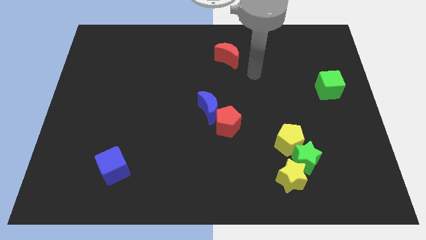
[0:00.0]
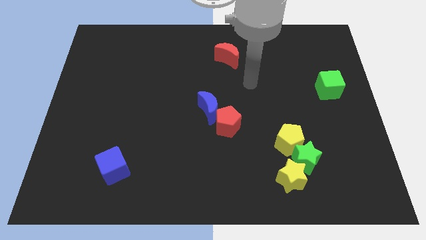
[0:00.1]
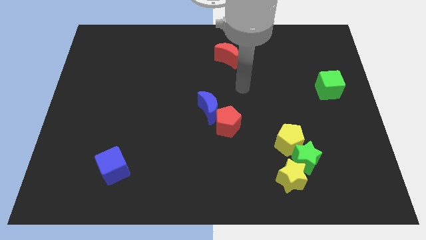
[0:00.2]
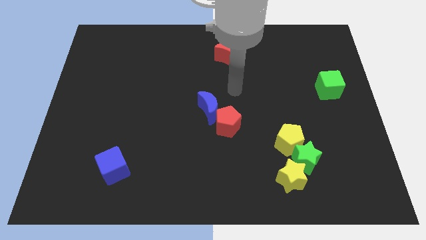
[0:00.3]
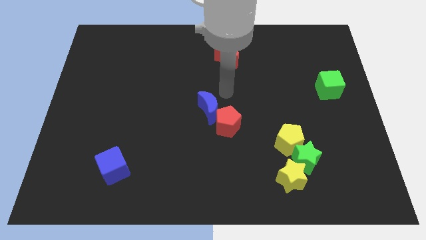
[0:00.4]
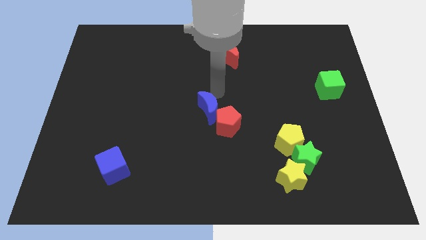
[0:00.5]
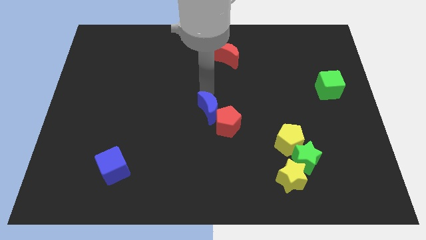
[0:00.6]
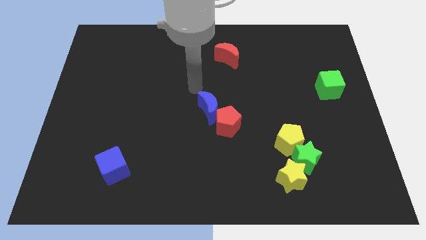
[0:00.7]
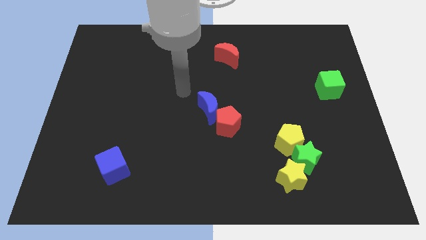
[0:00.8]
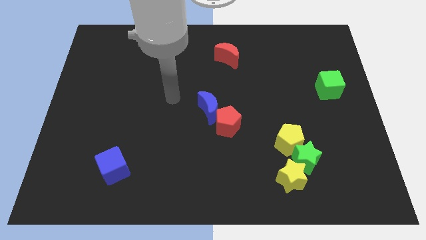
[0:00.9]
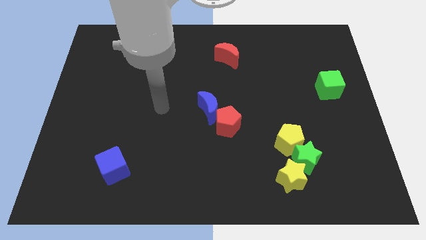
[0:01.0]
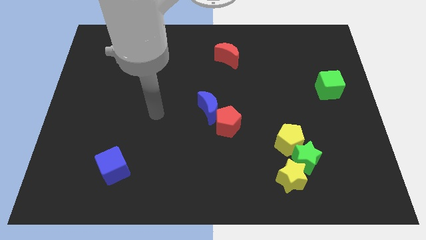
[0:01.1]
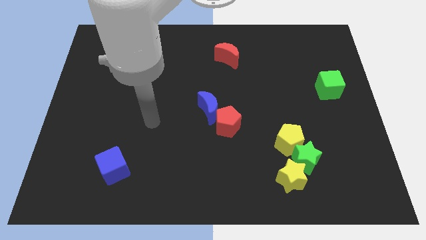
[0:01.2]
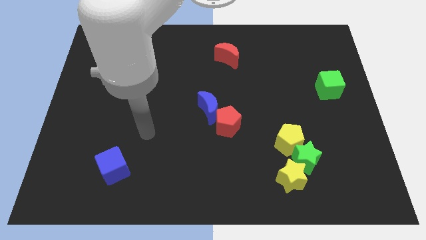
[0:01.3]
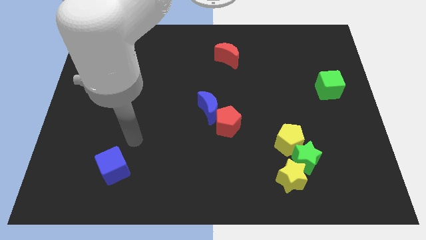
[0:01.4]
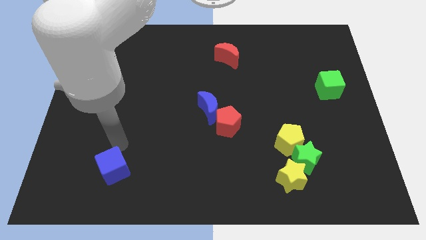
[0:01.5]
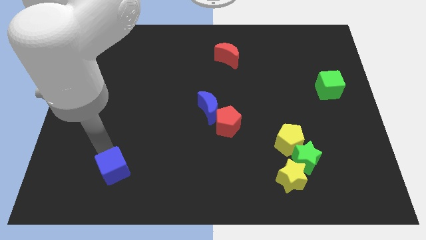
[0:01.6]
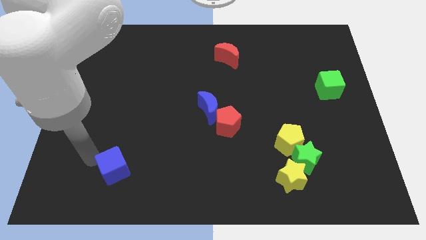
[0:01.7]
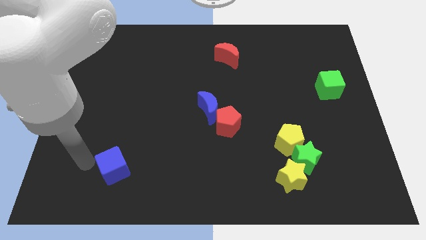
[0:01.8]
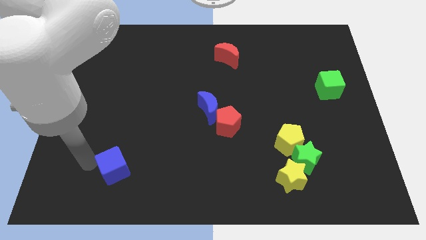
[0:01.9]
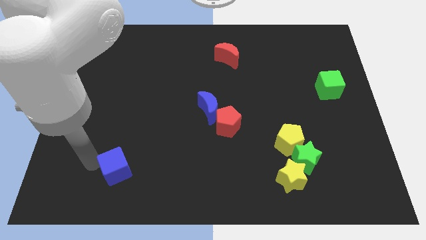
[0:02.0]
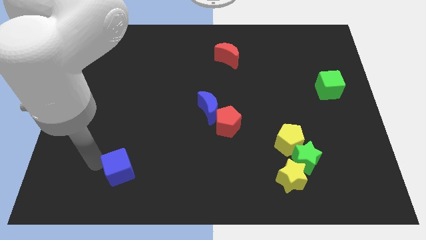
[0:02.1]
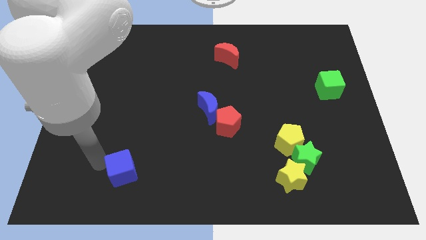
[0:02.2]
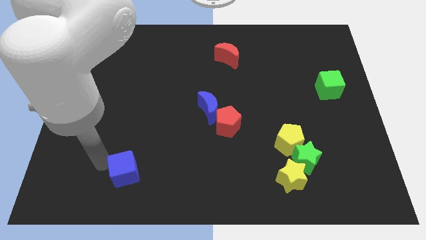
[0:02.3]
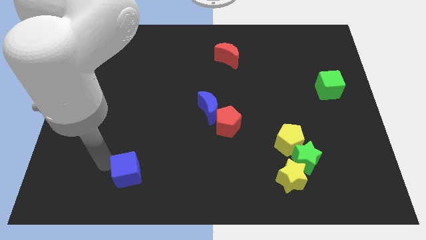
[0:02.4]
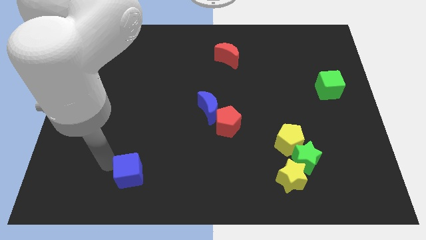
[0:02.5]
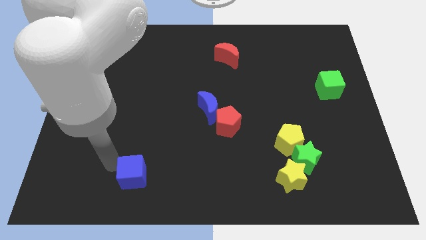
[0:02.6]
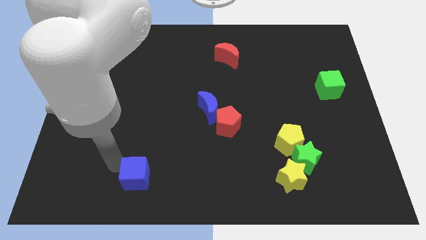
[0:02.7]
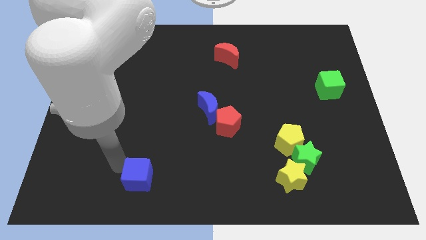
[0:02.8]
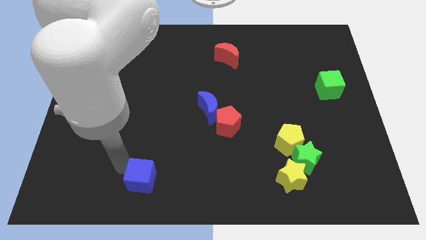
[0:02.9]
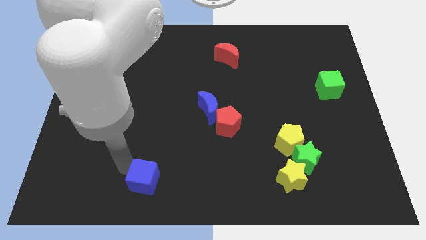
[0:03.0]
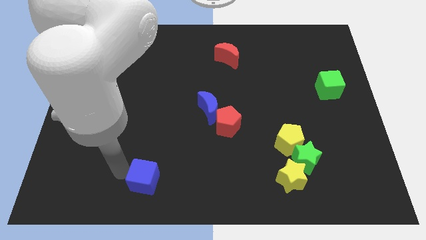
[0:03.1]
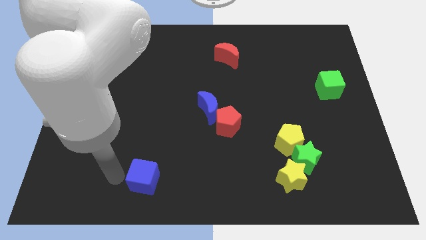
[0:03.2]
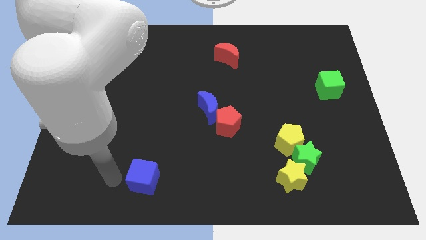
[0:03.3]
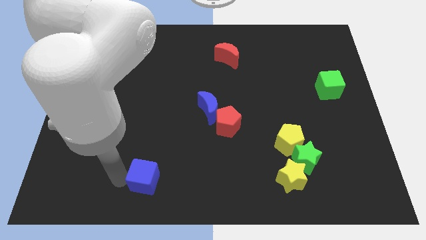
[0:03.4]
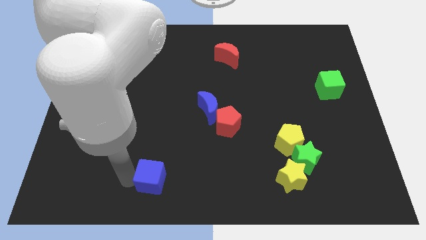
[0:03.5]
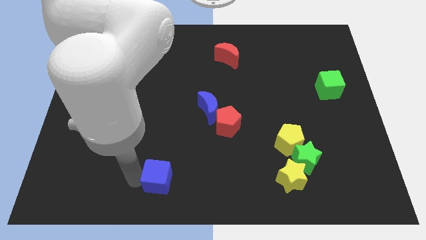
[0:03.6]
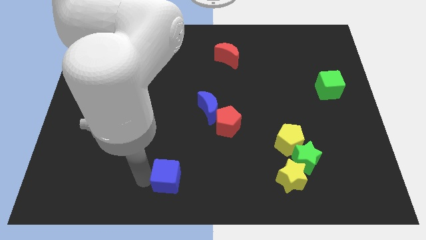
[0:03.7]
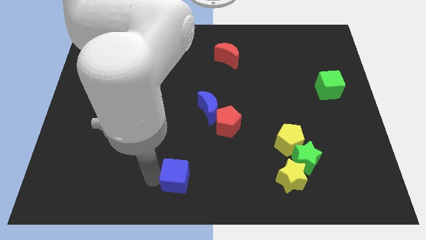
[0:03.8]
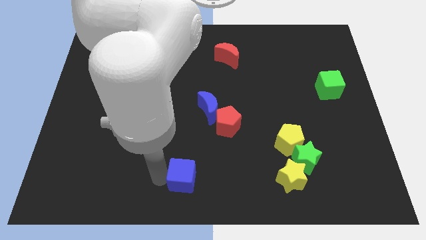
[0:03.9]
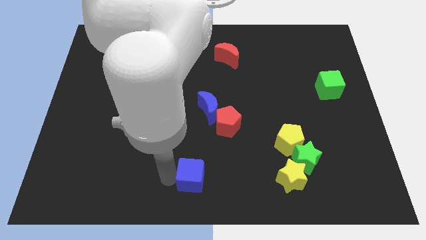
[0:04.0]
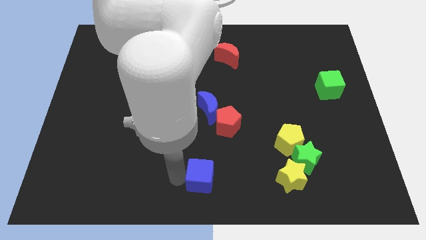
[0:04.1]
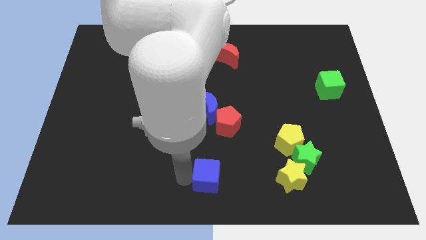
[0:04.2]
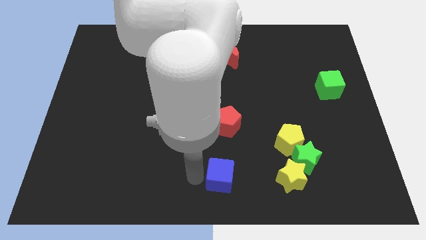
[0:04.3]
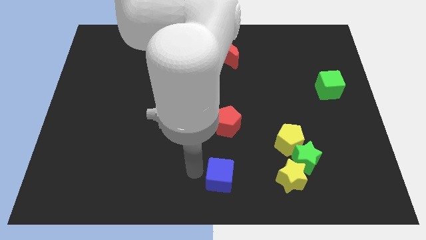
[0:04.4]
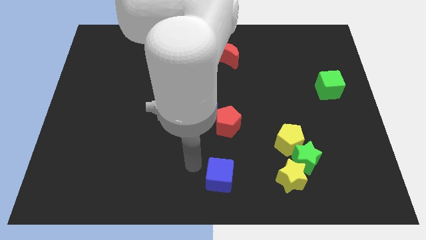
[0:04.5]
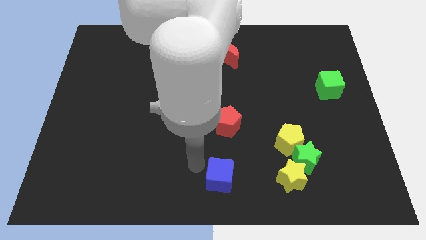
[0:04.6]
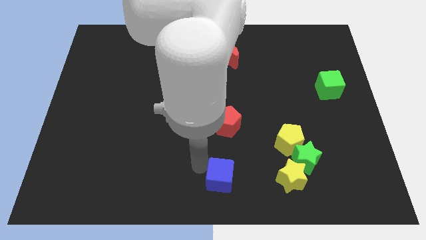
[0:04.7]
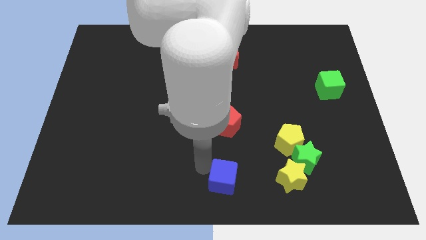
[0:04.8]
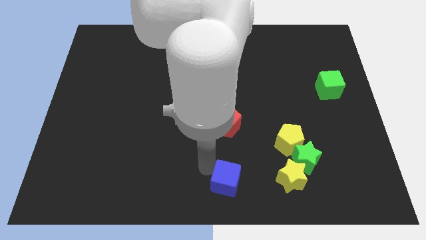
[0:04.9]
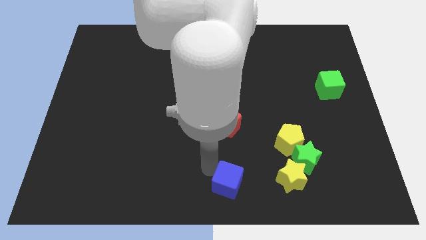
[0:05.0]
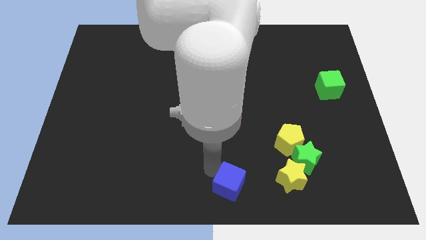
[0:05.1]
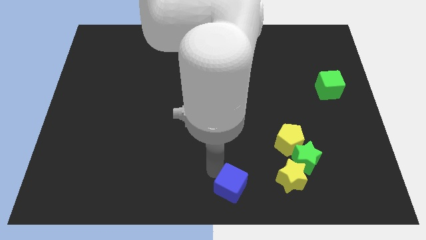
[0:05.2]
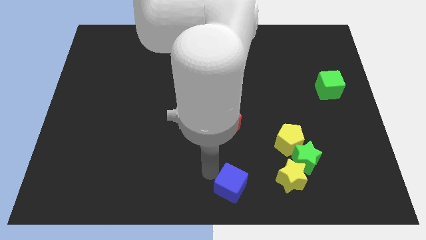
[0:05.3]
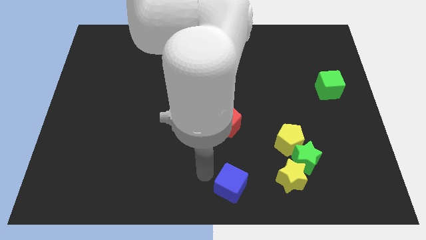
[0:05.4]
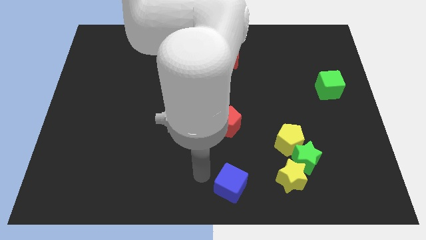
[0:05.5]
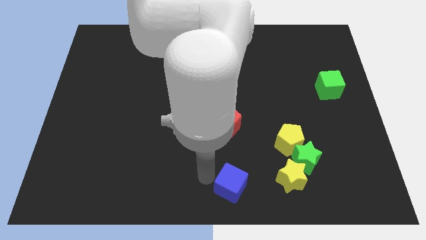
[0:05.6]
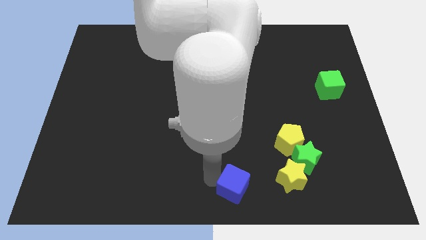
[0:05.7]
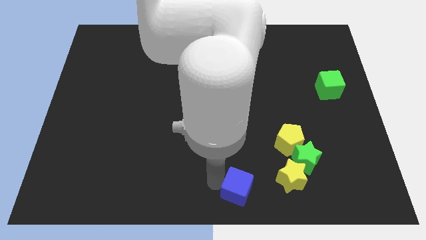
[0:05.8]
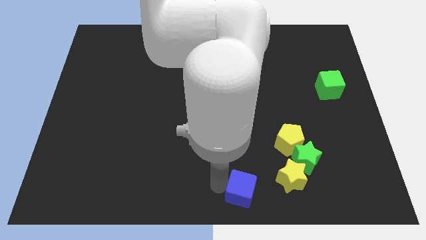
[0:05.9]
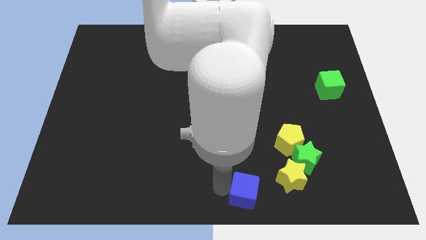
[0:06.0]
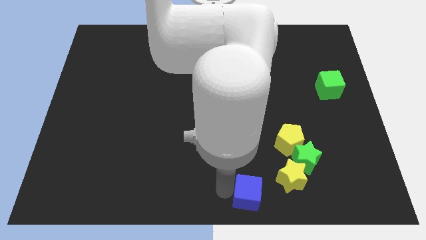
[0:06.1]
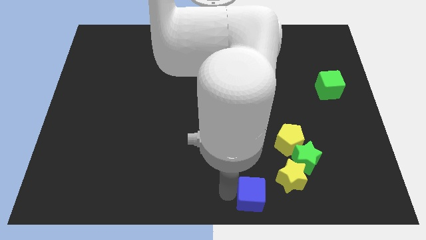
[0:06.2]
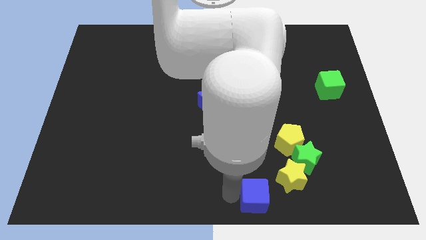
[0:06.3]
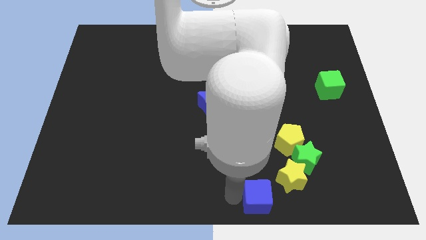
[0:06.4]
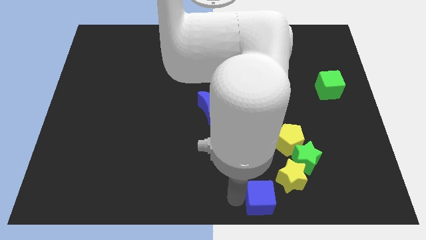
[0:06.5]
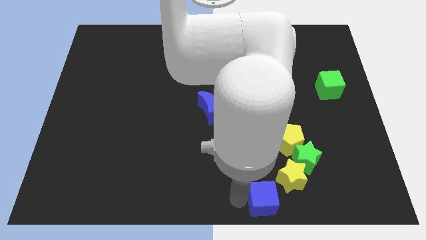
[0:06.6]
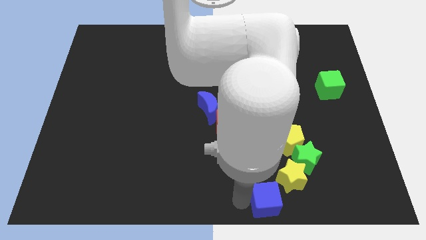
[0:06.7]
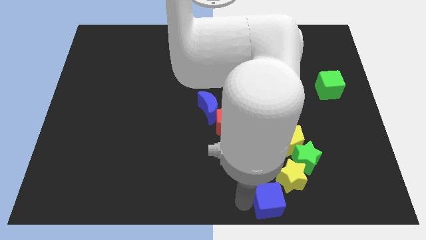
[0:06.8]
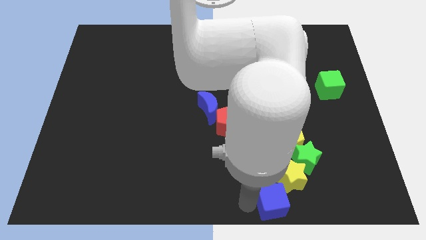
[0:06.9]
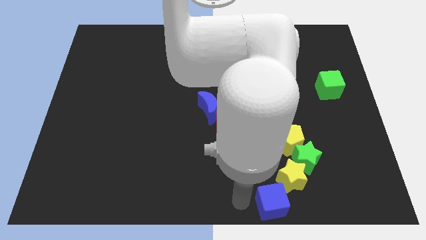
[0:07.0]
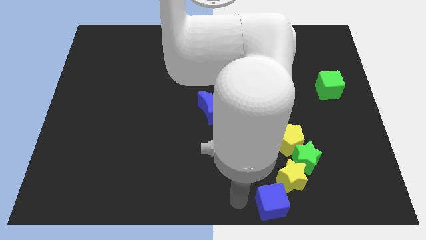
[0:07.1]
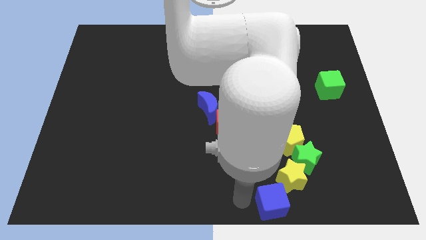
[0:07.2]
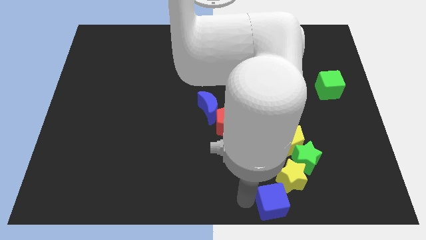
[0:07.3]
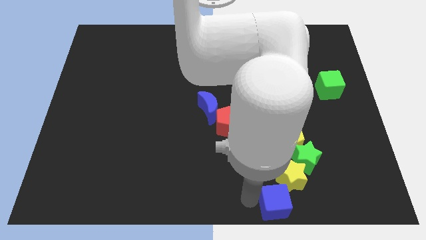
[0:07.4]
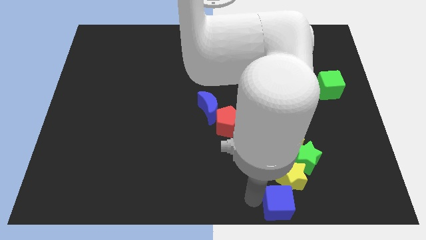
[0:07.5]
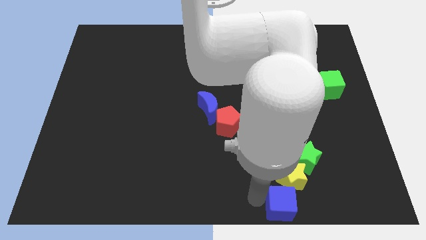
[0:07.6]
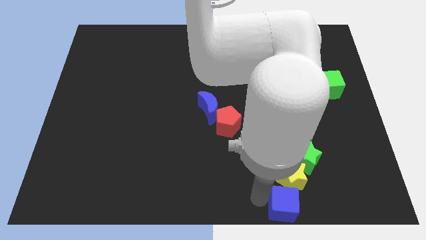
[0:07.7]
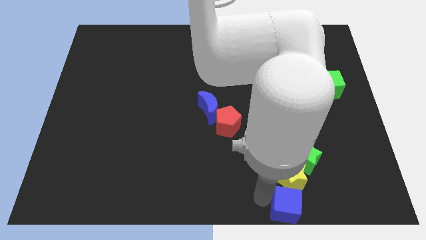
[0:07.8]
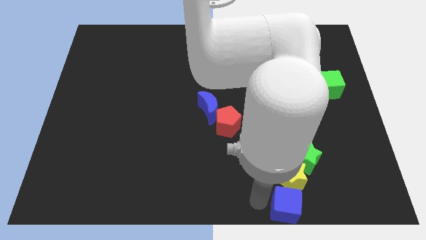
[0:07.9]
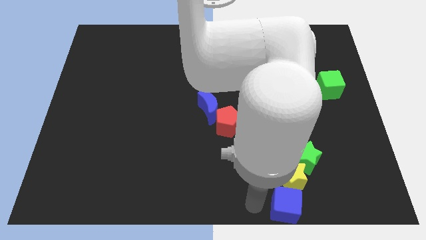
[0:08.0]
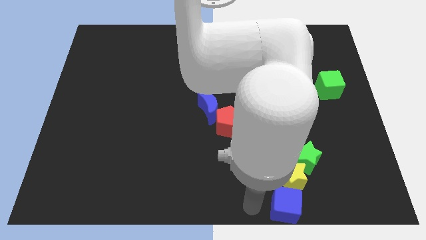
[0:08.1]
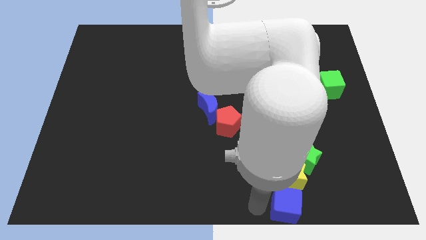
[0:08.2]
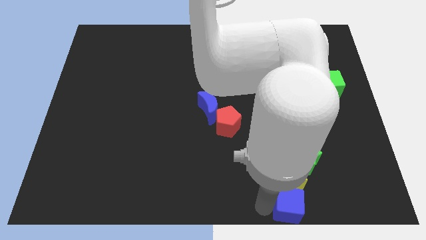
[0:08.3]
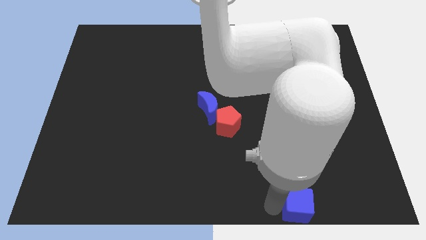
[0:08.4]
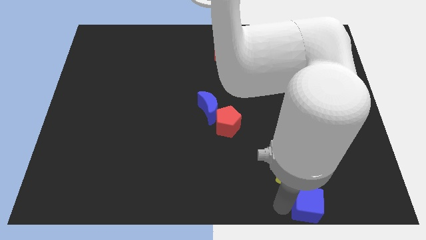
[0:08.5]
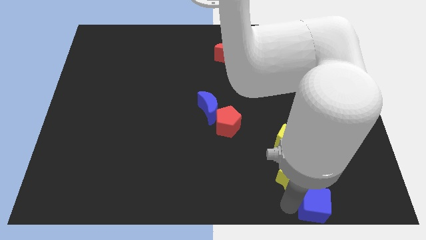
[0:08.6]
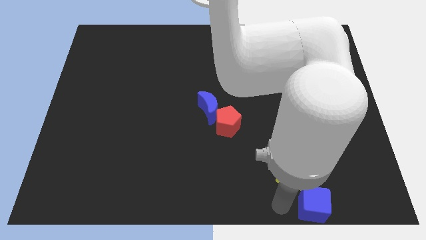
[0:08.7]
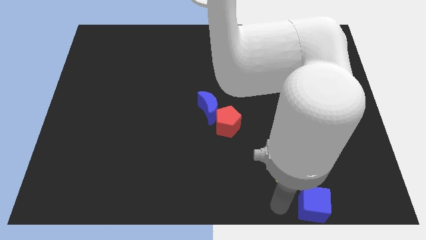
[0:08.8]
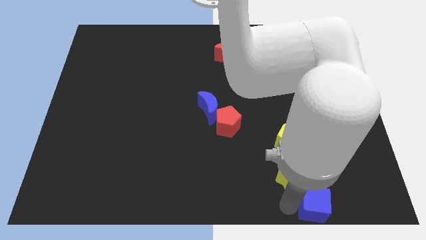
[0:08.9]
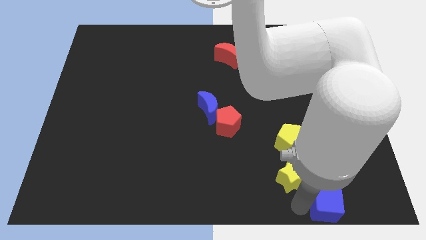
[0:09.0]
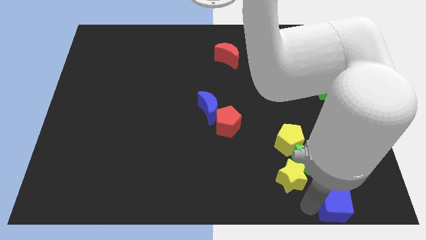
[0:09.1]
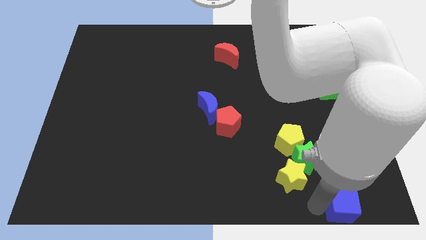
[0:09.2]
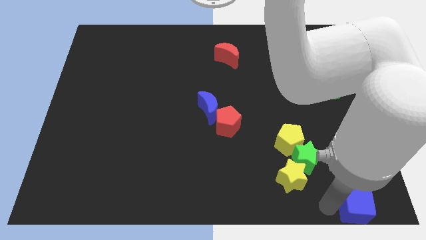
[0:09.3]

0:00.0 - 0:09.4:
slide the blue cube to the bottom right
